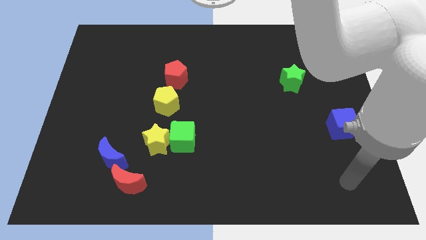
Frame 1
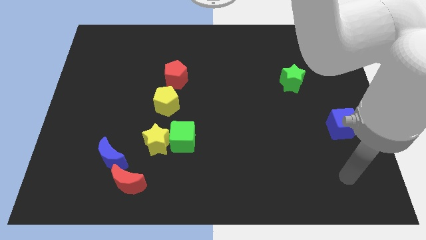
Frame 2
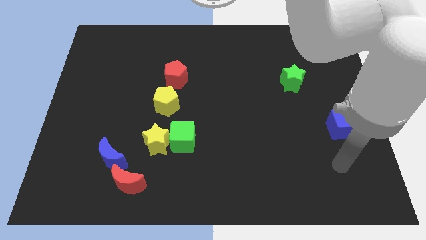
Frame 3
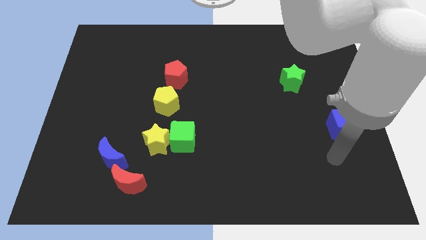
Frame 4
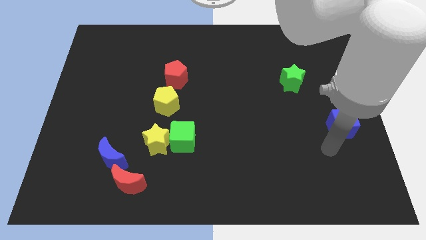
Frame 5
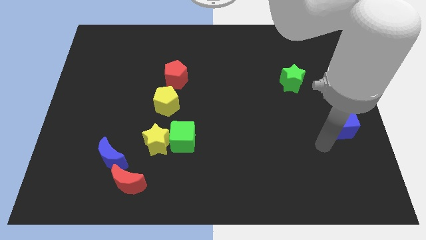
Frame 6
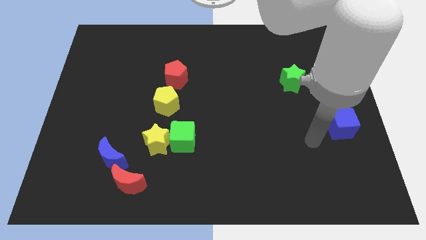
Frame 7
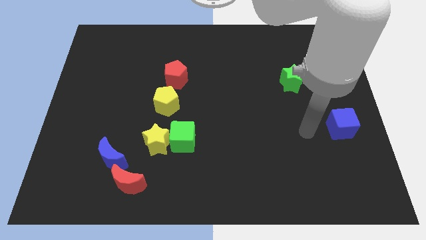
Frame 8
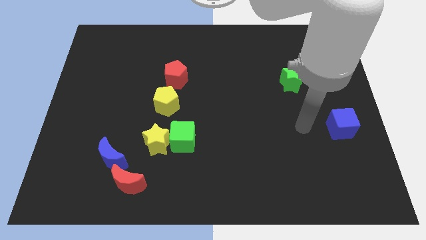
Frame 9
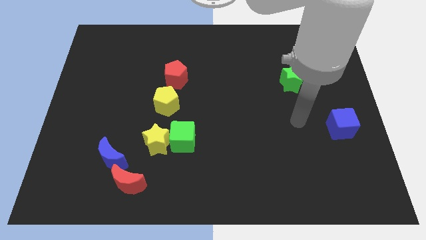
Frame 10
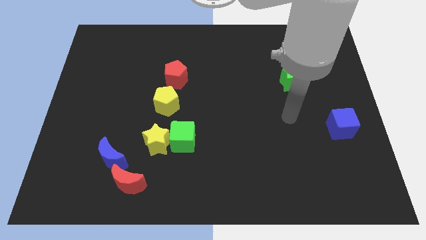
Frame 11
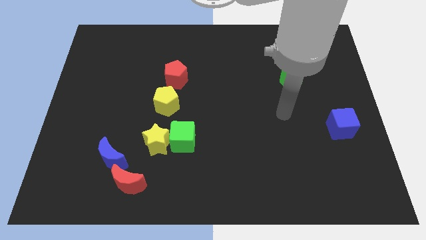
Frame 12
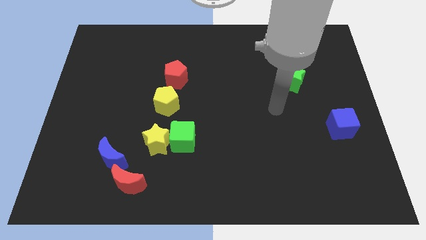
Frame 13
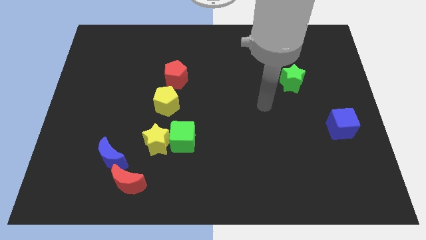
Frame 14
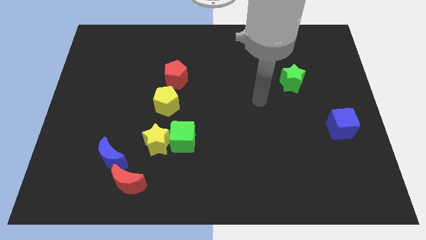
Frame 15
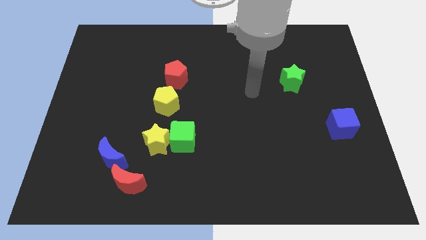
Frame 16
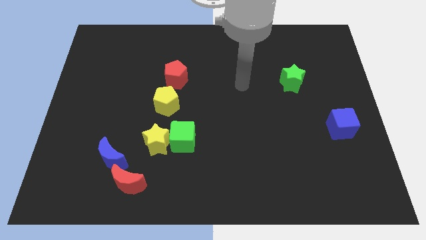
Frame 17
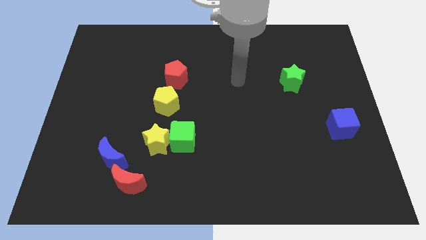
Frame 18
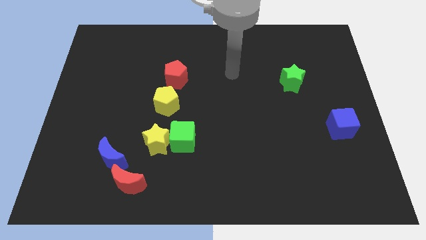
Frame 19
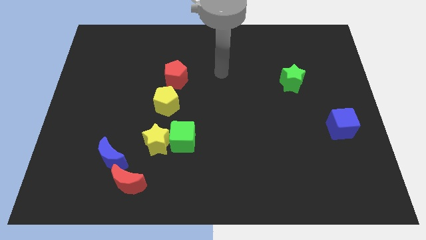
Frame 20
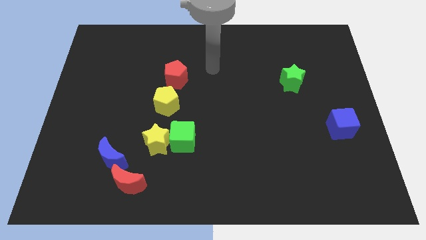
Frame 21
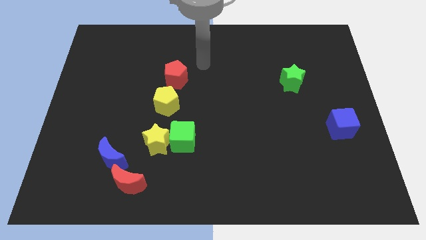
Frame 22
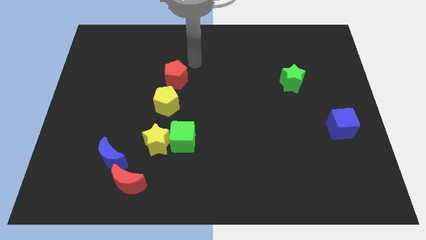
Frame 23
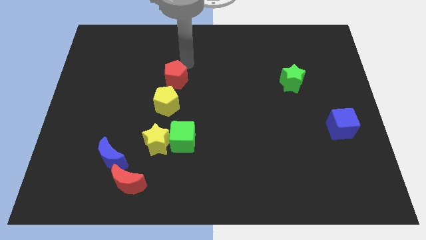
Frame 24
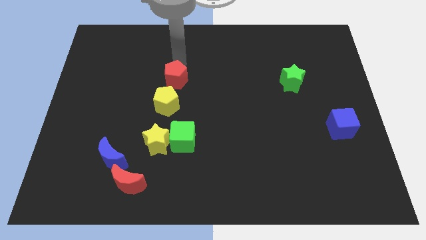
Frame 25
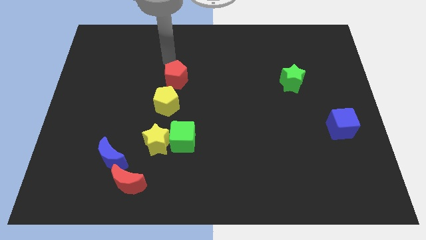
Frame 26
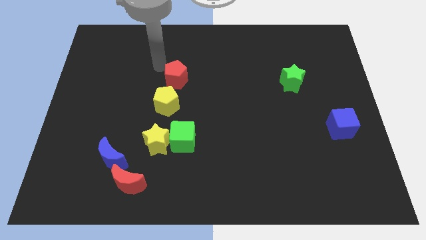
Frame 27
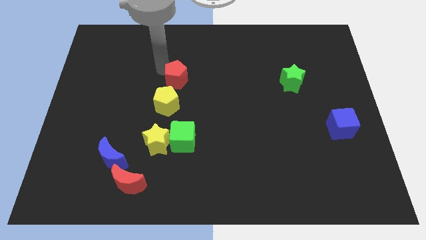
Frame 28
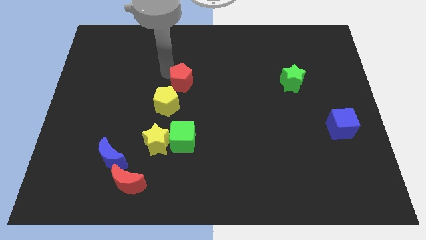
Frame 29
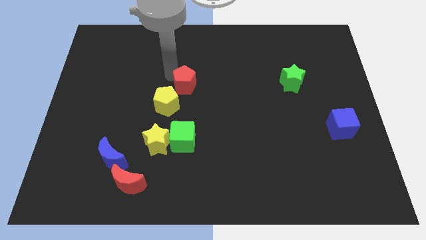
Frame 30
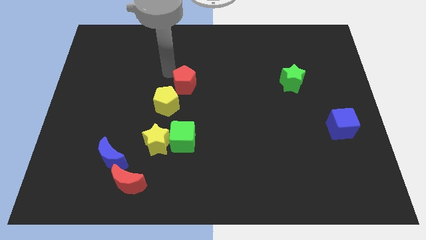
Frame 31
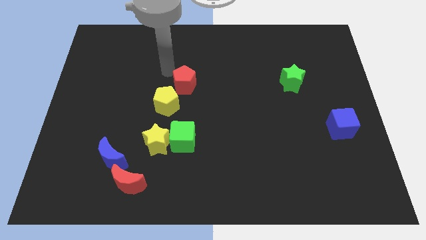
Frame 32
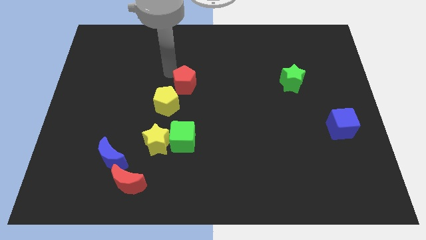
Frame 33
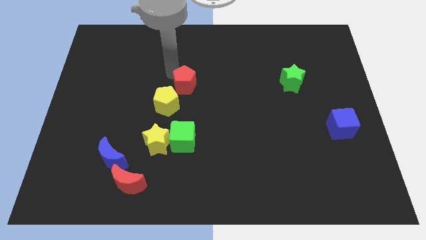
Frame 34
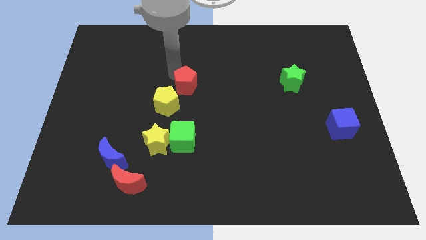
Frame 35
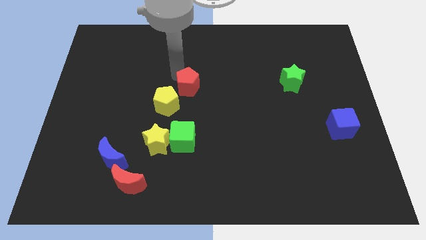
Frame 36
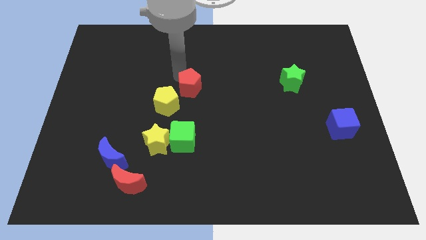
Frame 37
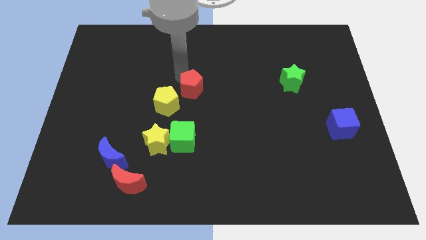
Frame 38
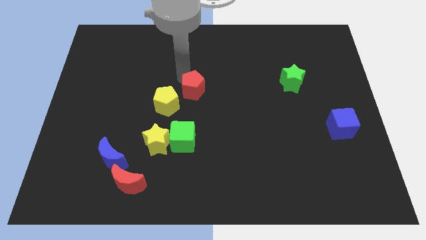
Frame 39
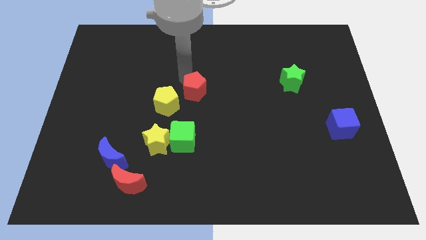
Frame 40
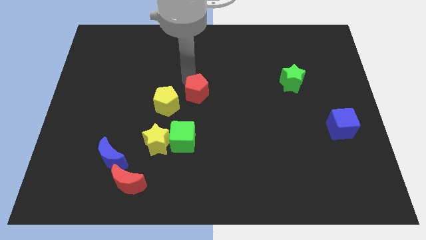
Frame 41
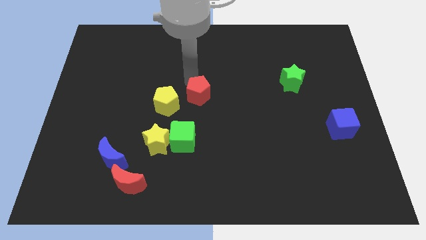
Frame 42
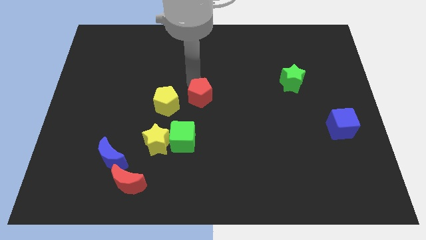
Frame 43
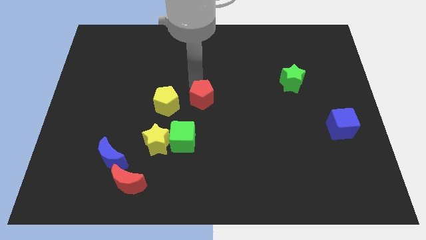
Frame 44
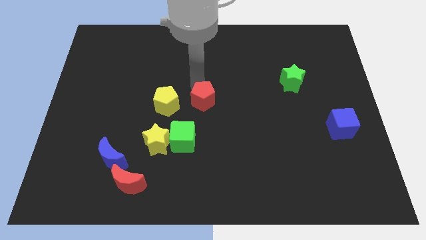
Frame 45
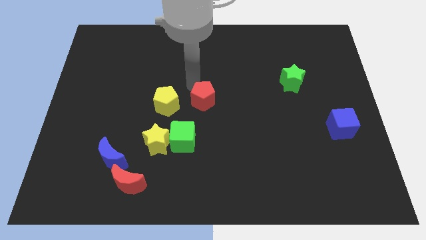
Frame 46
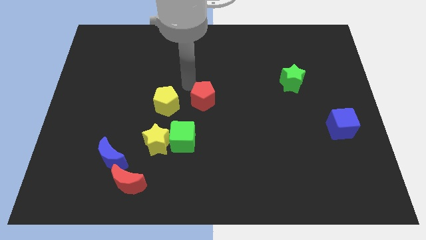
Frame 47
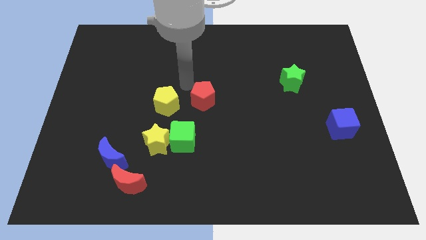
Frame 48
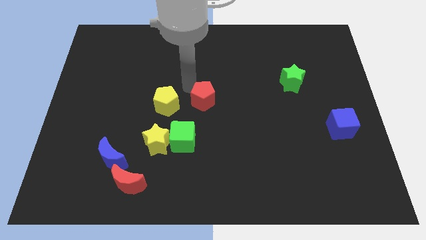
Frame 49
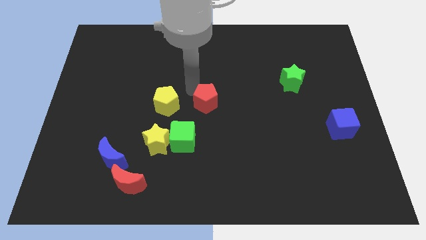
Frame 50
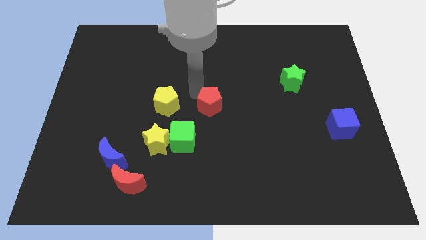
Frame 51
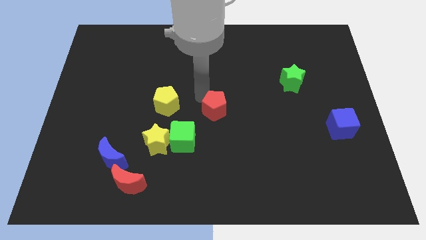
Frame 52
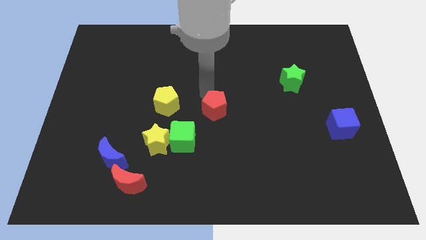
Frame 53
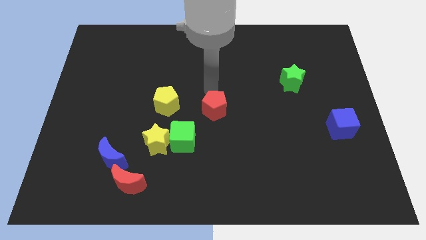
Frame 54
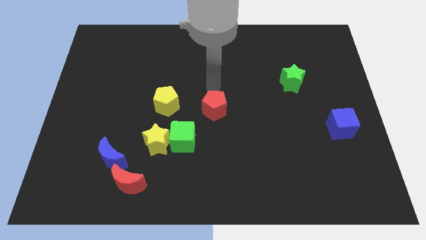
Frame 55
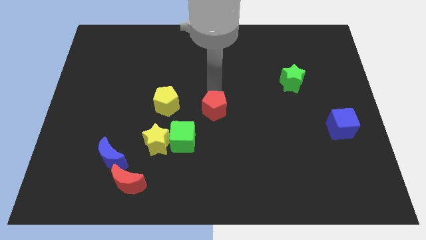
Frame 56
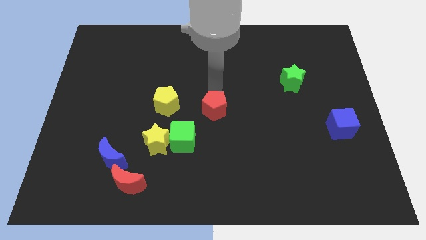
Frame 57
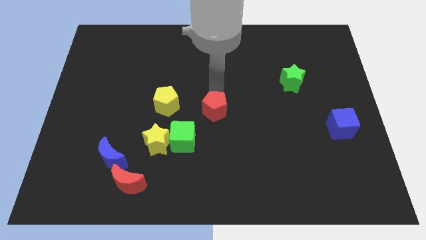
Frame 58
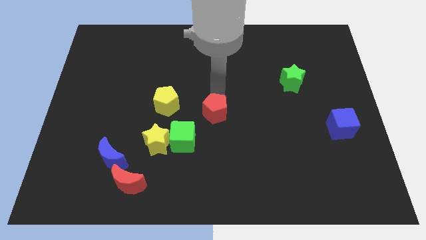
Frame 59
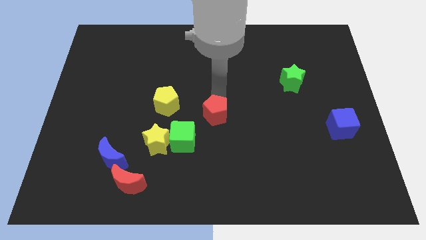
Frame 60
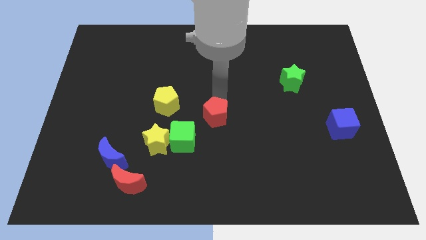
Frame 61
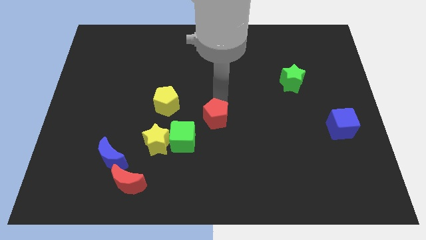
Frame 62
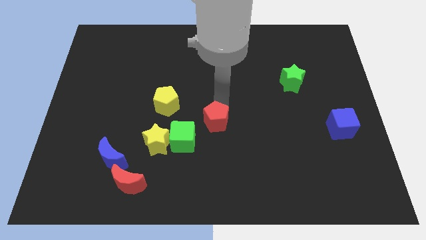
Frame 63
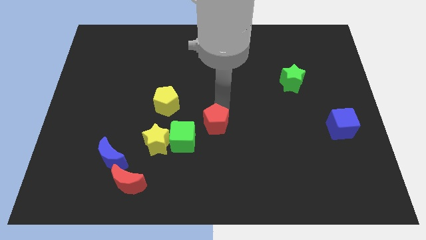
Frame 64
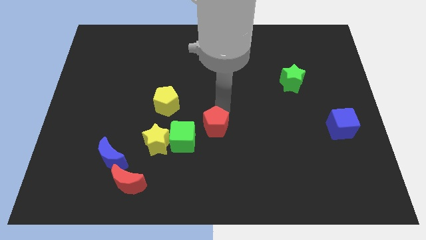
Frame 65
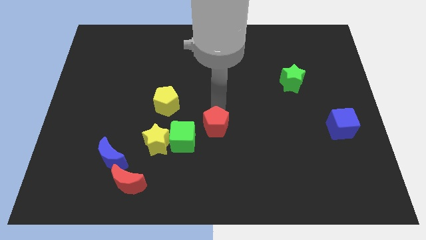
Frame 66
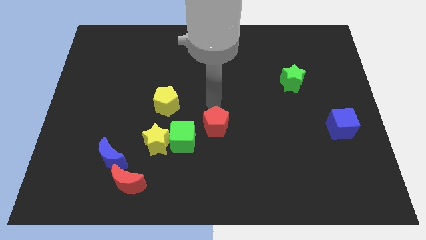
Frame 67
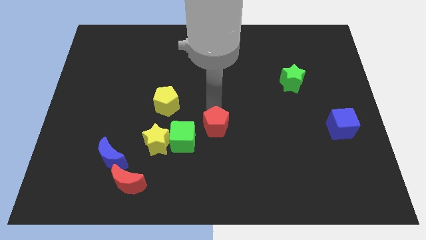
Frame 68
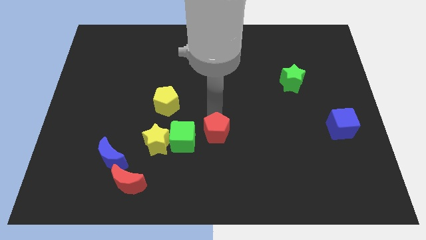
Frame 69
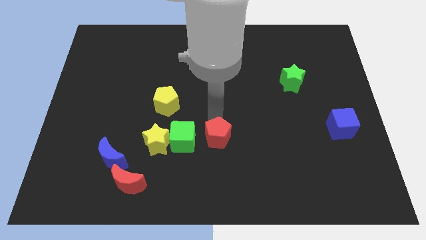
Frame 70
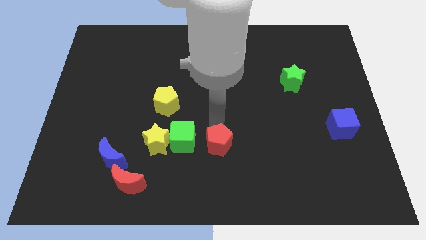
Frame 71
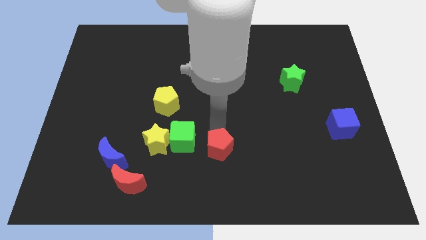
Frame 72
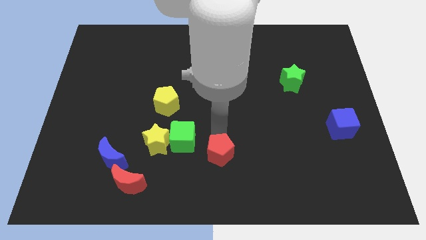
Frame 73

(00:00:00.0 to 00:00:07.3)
put the red pentagon to the bottom
